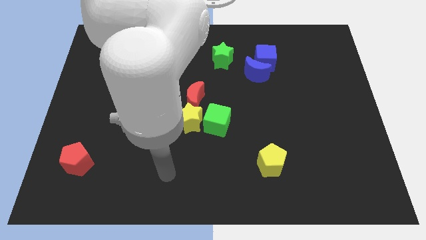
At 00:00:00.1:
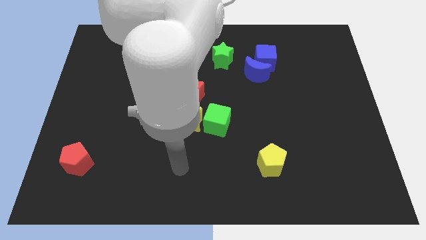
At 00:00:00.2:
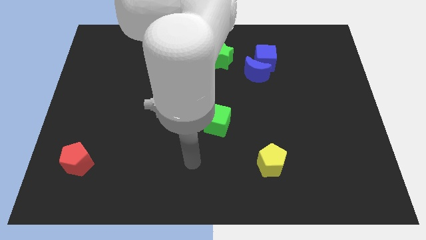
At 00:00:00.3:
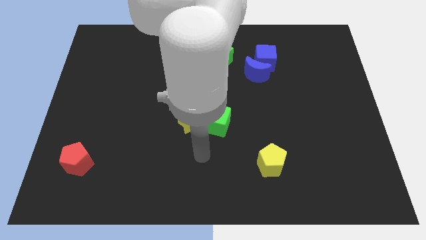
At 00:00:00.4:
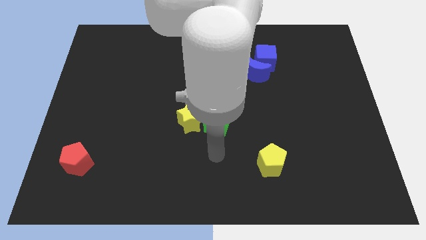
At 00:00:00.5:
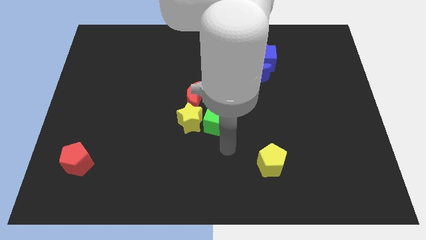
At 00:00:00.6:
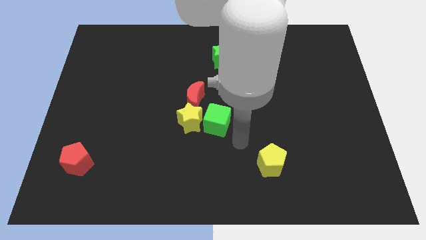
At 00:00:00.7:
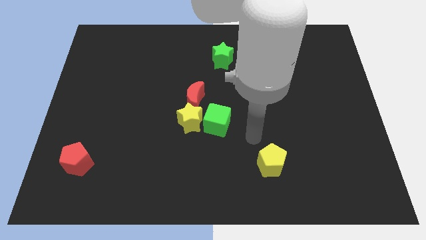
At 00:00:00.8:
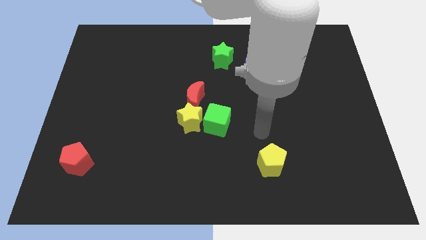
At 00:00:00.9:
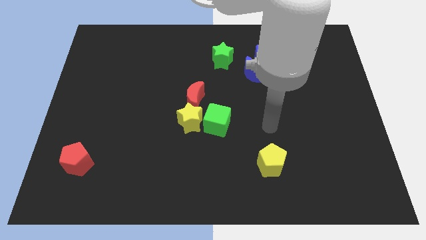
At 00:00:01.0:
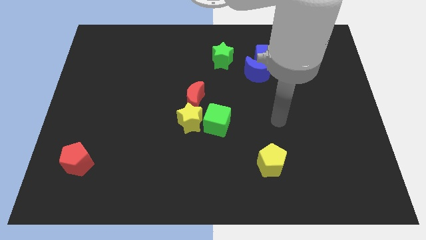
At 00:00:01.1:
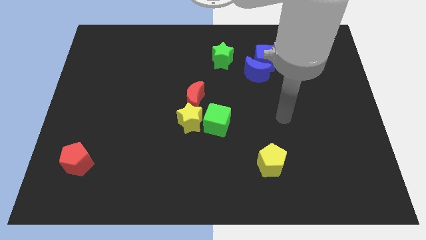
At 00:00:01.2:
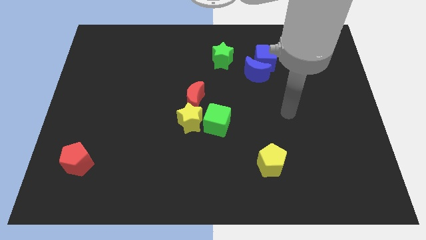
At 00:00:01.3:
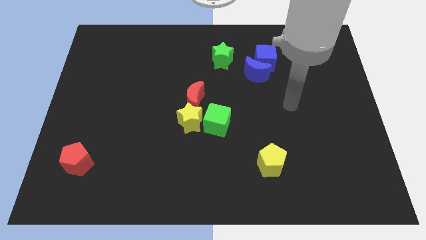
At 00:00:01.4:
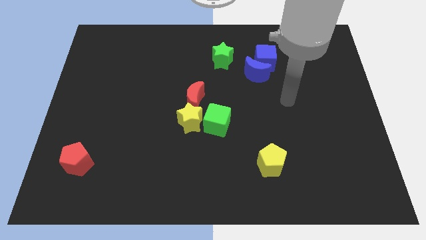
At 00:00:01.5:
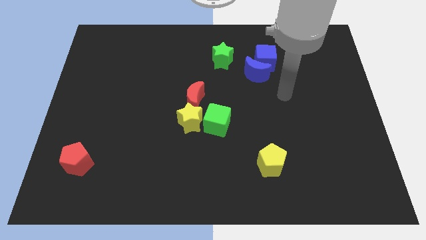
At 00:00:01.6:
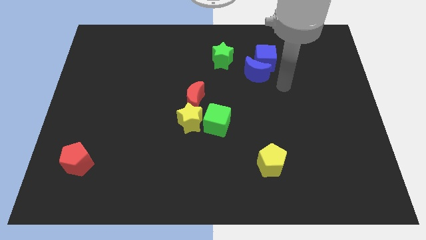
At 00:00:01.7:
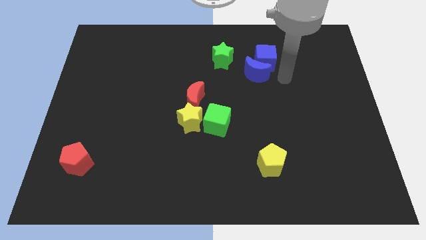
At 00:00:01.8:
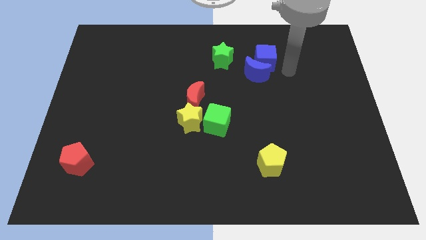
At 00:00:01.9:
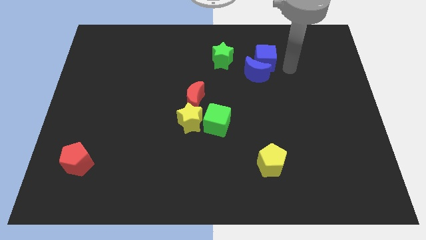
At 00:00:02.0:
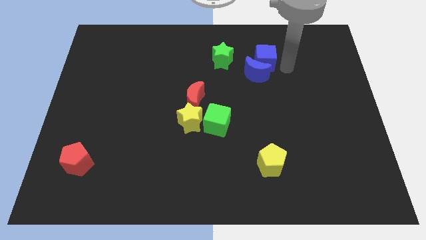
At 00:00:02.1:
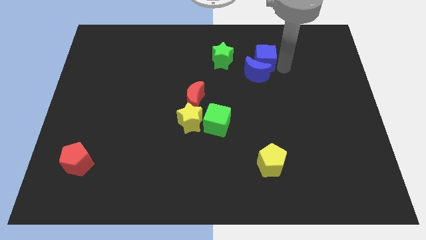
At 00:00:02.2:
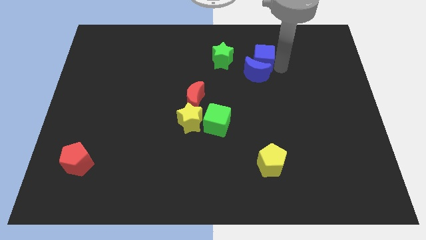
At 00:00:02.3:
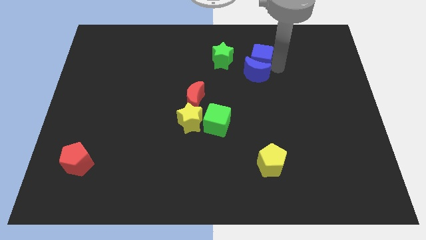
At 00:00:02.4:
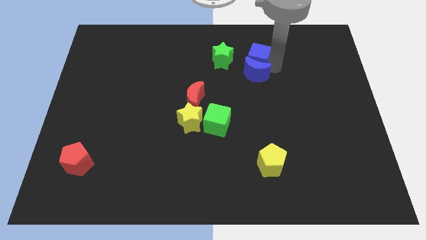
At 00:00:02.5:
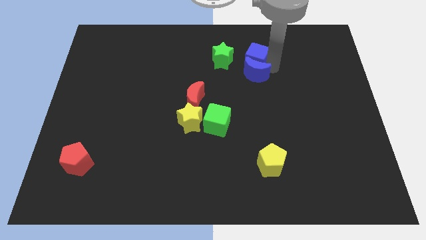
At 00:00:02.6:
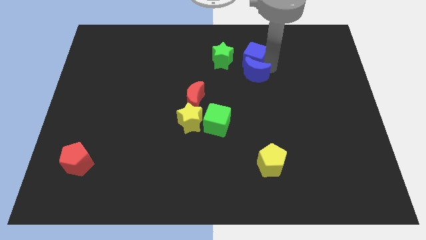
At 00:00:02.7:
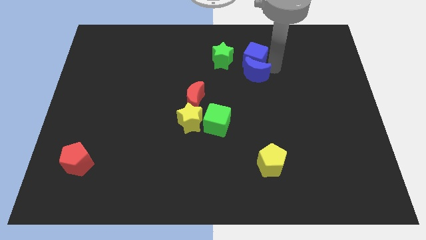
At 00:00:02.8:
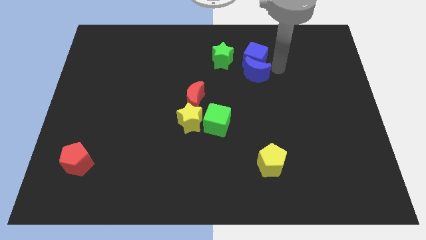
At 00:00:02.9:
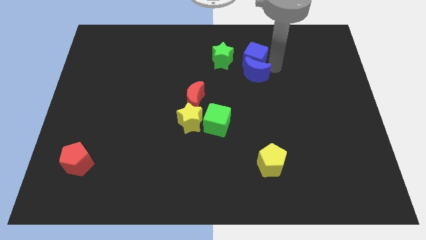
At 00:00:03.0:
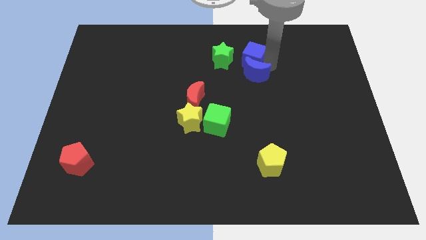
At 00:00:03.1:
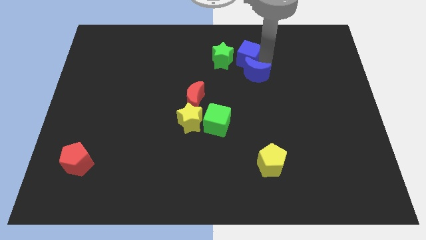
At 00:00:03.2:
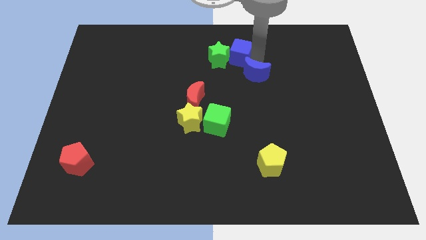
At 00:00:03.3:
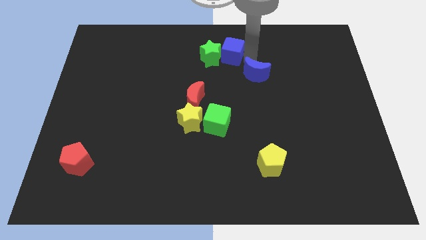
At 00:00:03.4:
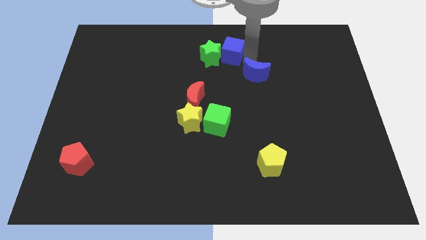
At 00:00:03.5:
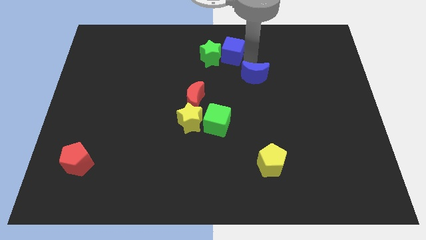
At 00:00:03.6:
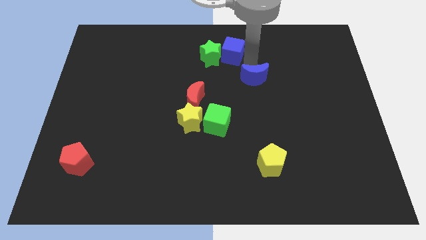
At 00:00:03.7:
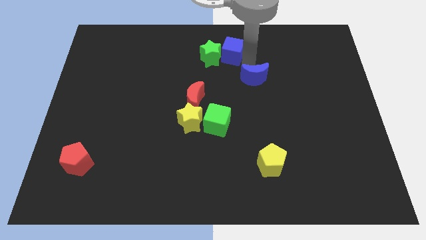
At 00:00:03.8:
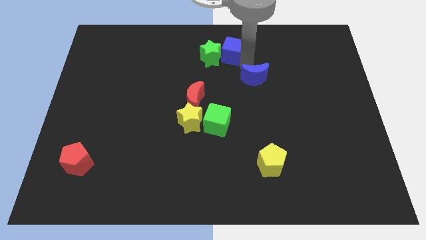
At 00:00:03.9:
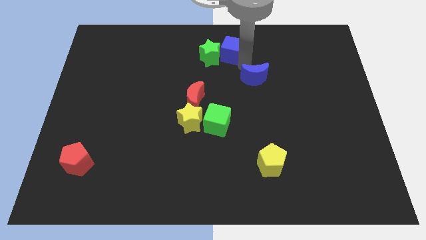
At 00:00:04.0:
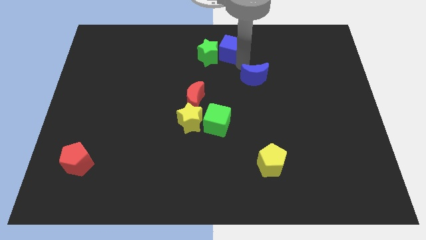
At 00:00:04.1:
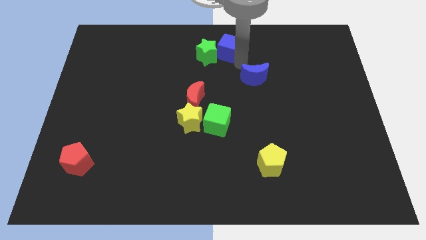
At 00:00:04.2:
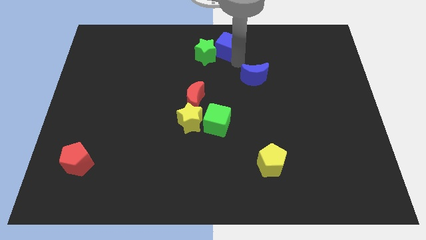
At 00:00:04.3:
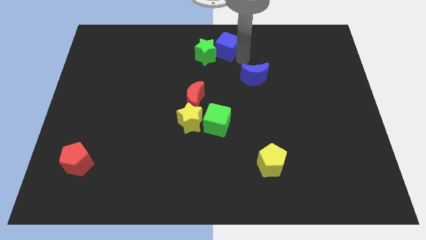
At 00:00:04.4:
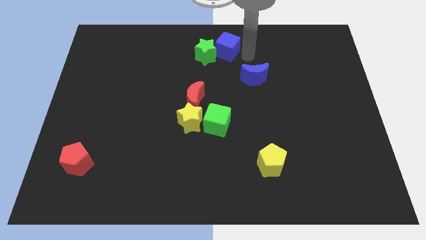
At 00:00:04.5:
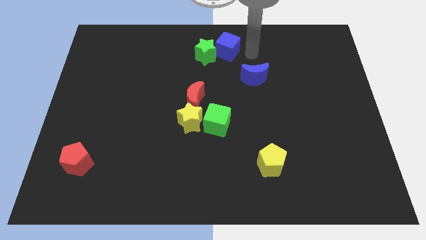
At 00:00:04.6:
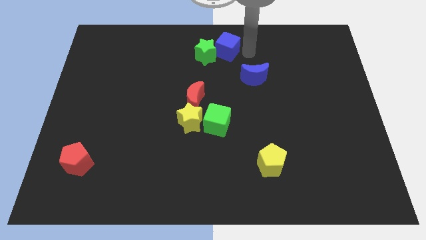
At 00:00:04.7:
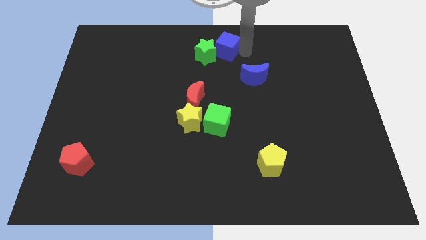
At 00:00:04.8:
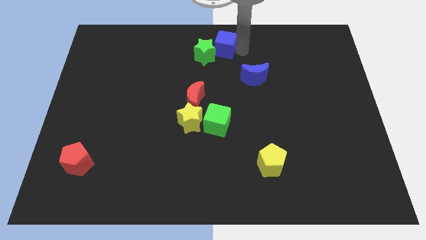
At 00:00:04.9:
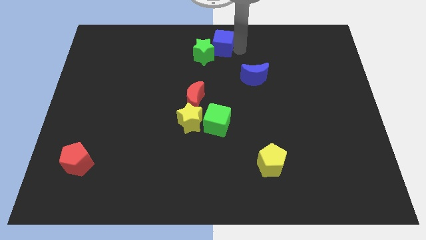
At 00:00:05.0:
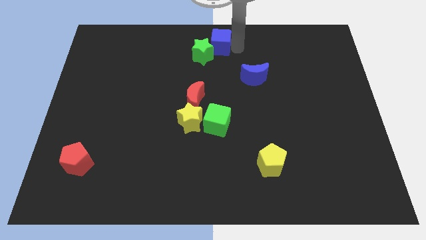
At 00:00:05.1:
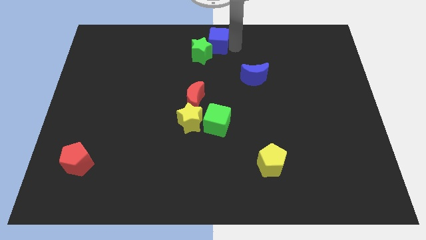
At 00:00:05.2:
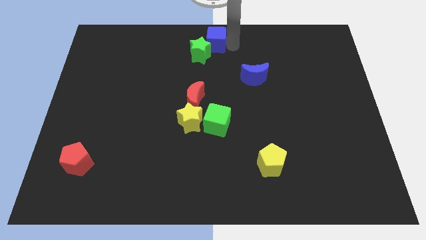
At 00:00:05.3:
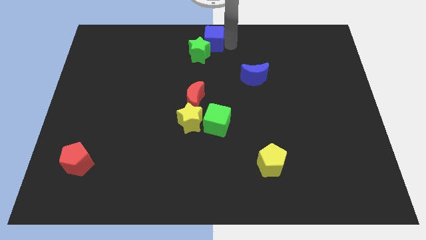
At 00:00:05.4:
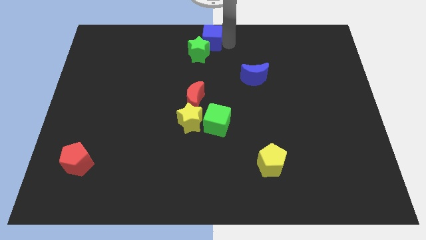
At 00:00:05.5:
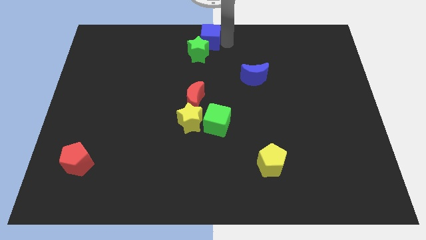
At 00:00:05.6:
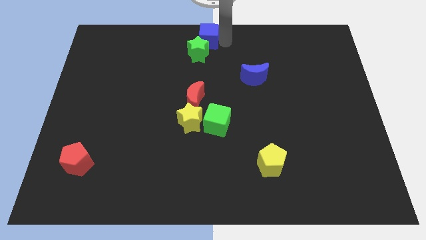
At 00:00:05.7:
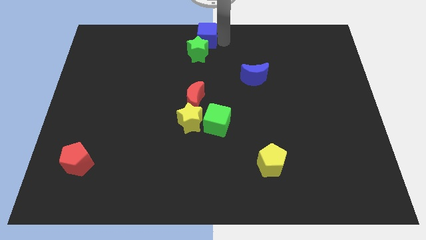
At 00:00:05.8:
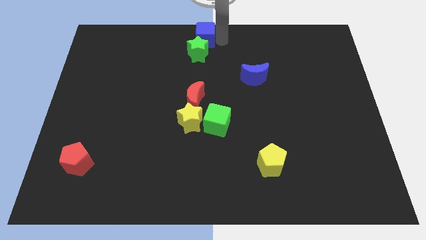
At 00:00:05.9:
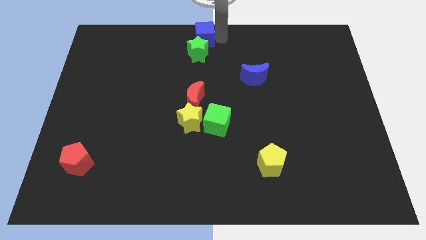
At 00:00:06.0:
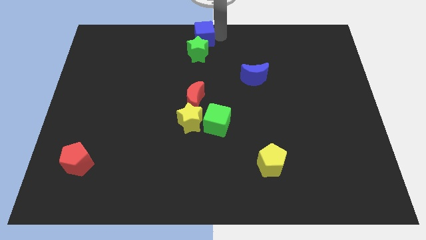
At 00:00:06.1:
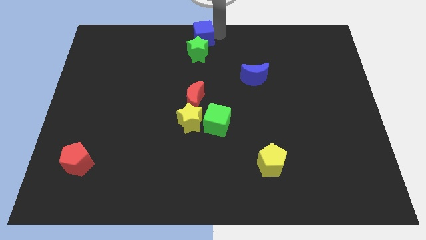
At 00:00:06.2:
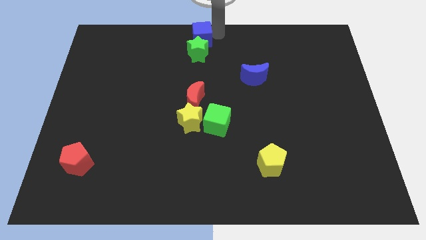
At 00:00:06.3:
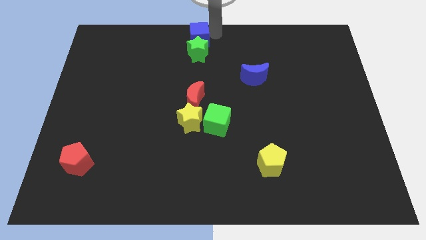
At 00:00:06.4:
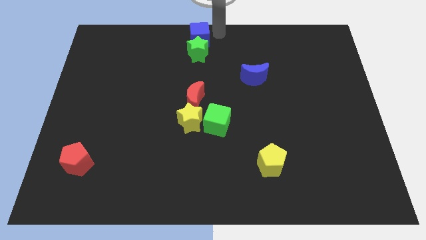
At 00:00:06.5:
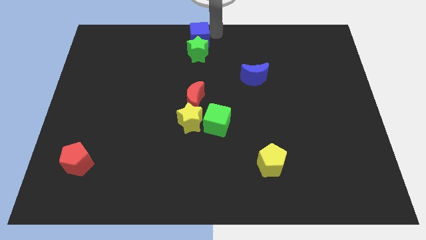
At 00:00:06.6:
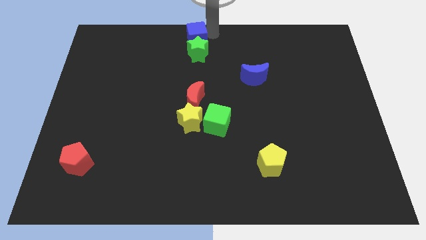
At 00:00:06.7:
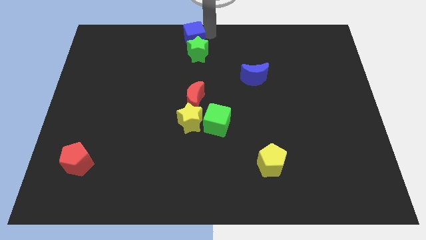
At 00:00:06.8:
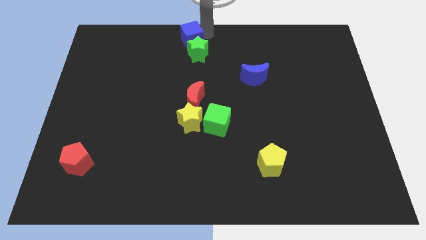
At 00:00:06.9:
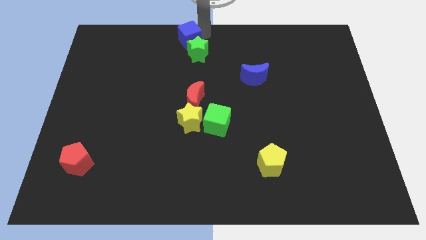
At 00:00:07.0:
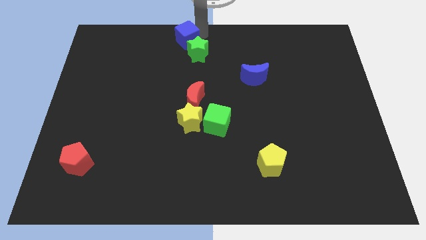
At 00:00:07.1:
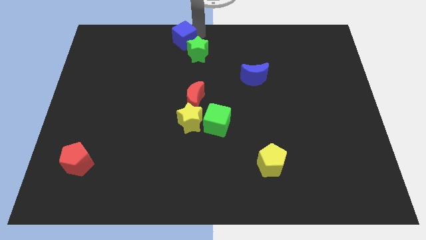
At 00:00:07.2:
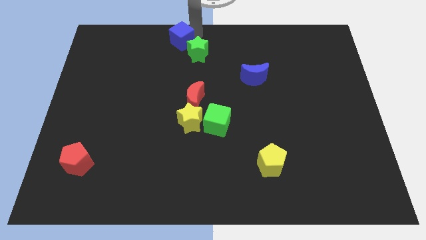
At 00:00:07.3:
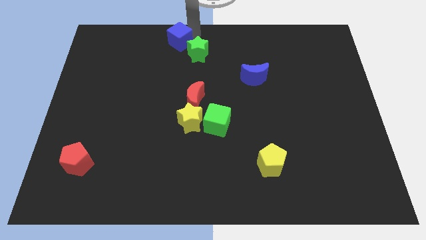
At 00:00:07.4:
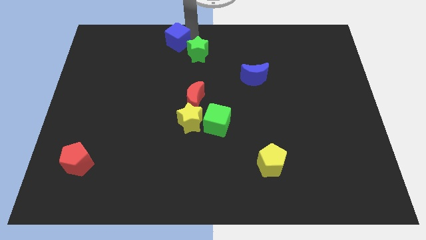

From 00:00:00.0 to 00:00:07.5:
push the blue cube left

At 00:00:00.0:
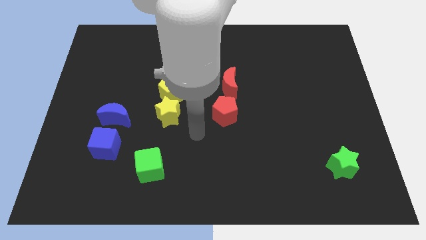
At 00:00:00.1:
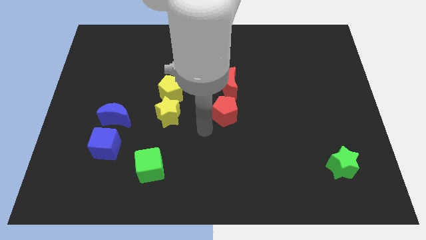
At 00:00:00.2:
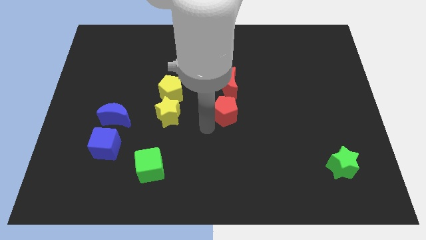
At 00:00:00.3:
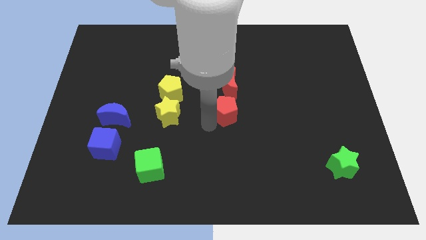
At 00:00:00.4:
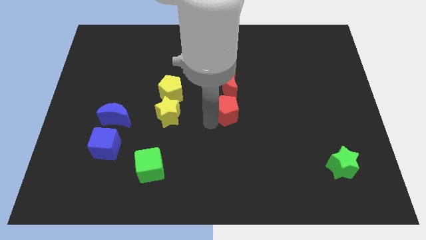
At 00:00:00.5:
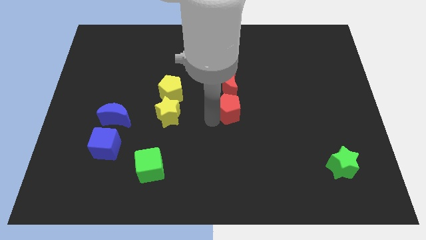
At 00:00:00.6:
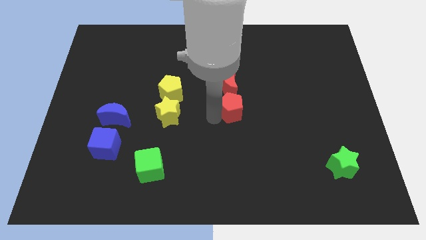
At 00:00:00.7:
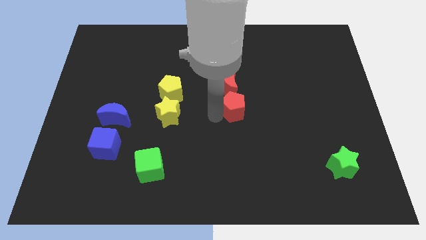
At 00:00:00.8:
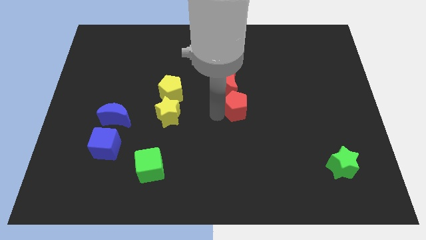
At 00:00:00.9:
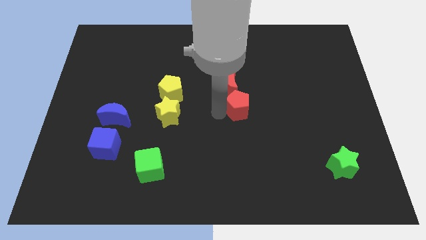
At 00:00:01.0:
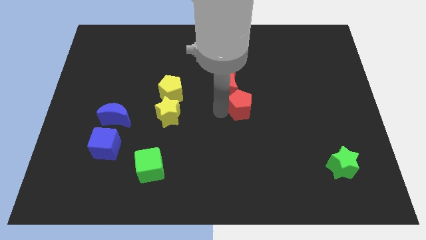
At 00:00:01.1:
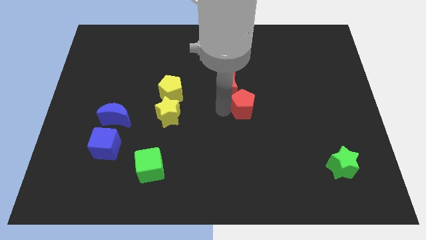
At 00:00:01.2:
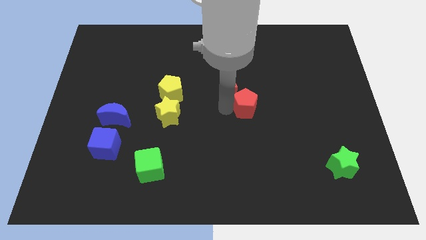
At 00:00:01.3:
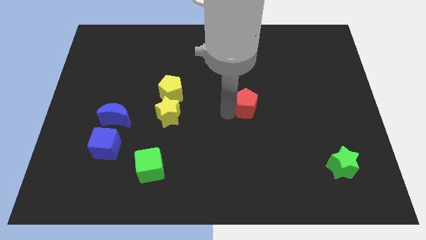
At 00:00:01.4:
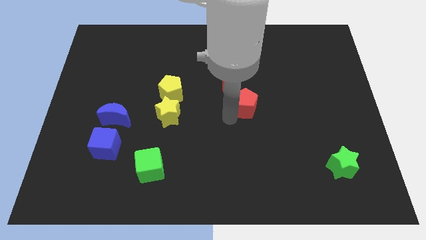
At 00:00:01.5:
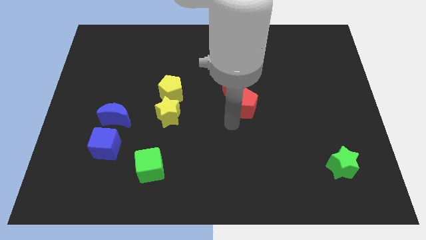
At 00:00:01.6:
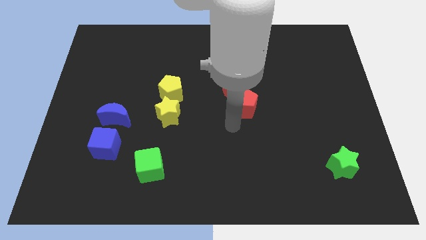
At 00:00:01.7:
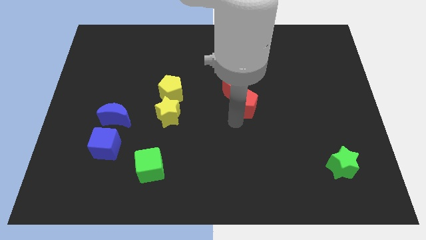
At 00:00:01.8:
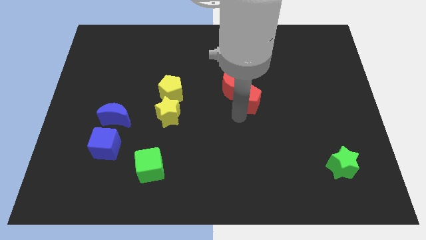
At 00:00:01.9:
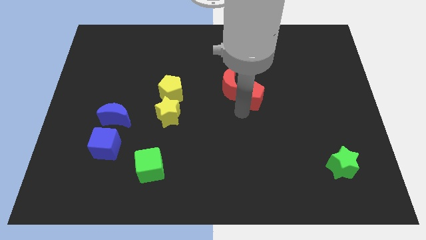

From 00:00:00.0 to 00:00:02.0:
push the red pentagon a little bit up and to the right
